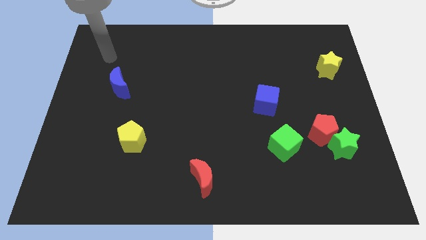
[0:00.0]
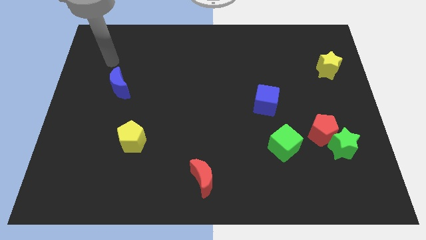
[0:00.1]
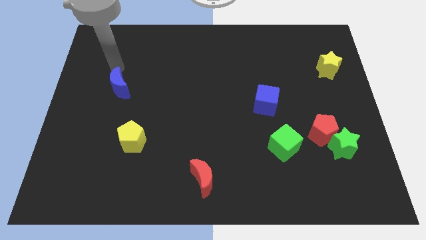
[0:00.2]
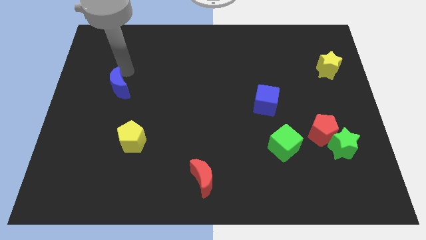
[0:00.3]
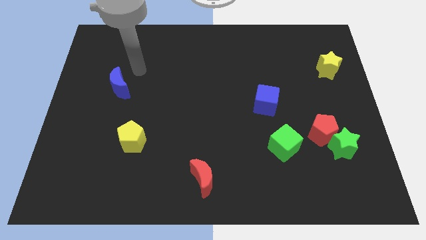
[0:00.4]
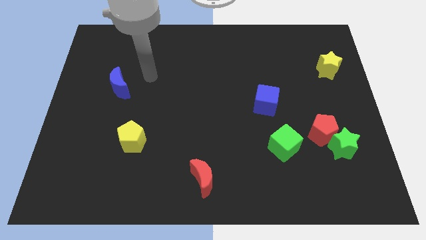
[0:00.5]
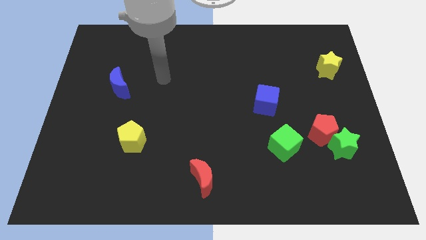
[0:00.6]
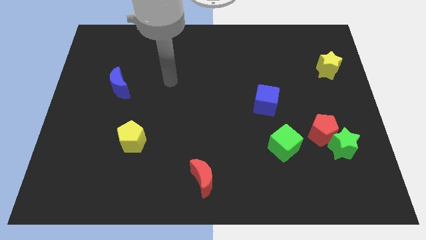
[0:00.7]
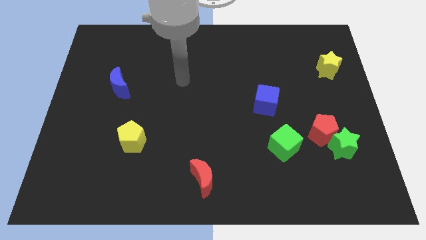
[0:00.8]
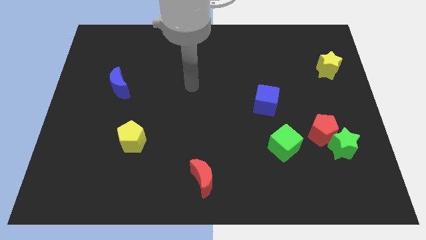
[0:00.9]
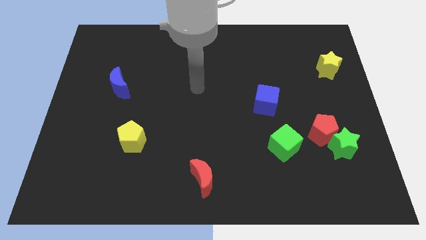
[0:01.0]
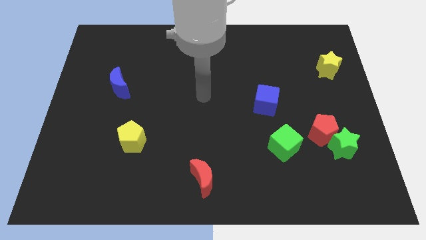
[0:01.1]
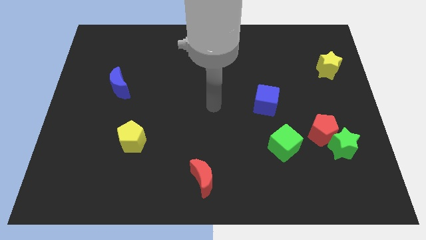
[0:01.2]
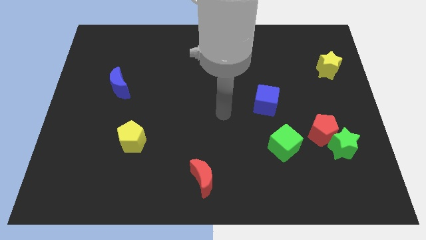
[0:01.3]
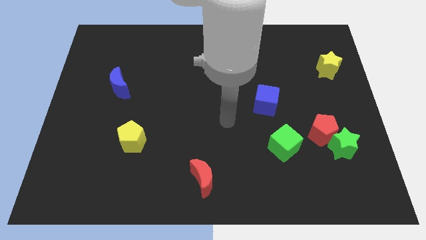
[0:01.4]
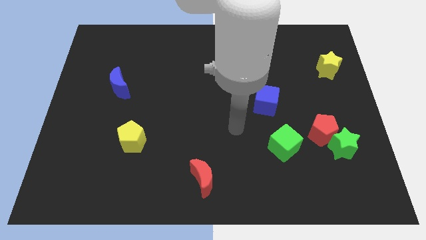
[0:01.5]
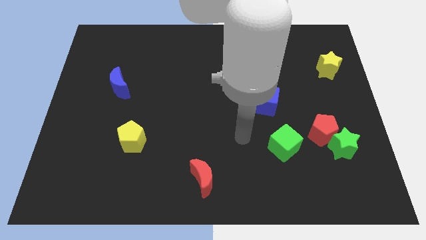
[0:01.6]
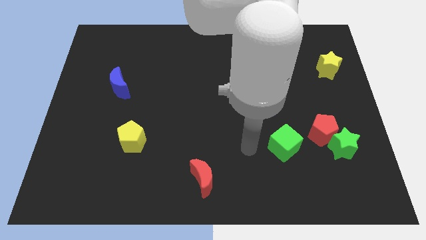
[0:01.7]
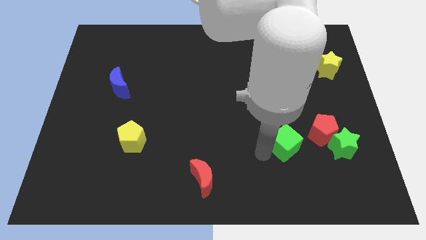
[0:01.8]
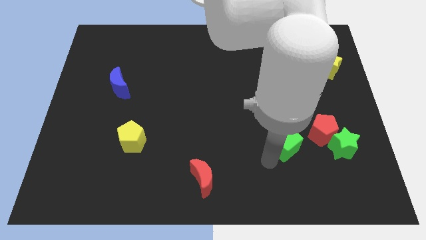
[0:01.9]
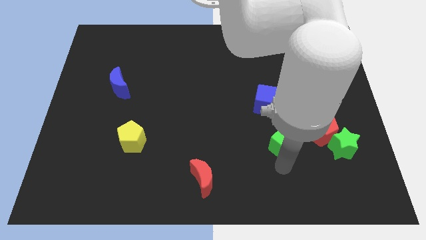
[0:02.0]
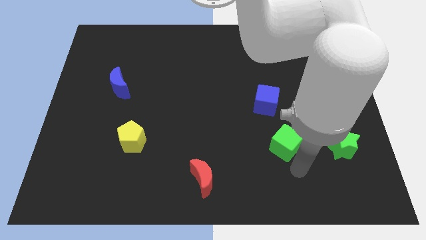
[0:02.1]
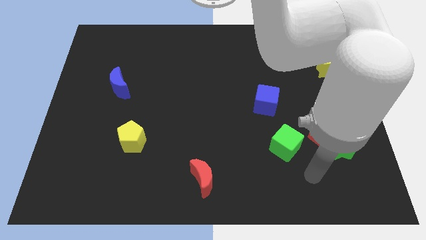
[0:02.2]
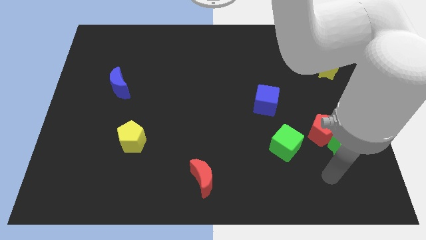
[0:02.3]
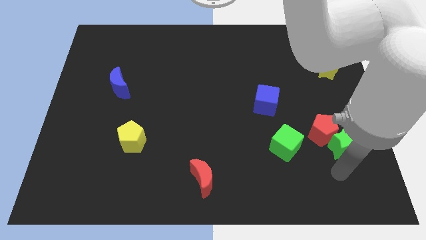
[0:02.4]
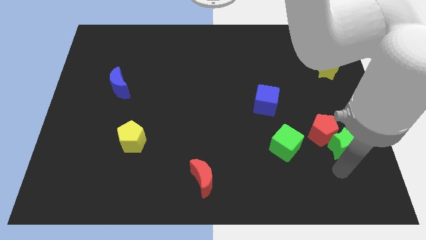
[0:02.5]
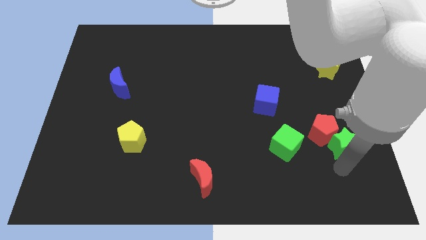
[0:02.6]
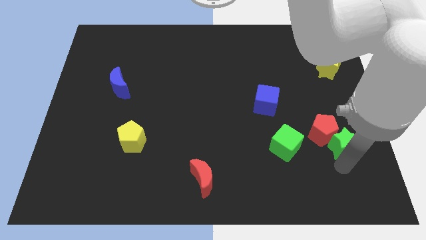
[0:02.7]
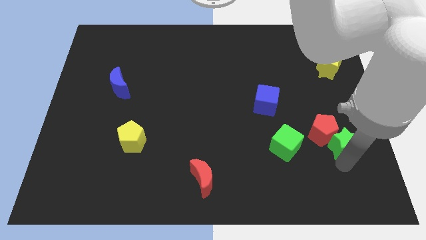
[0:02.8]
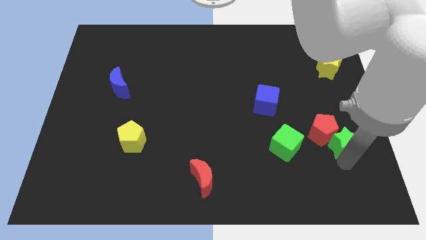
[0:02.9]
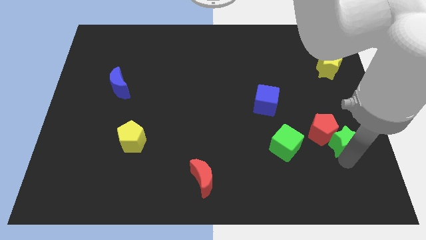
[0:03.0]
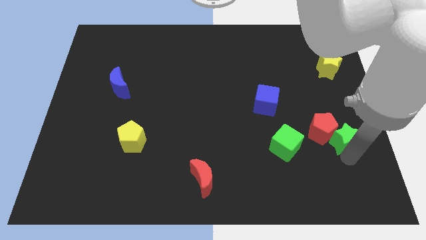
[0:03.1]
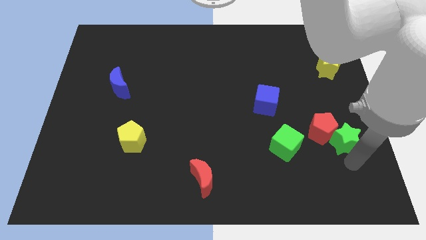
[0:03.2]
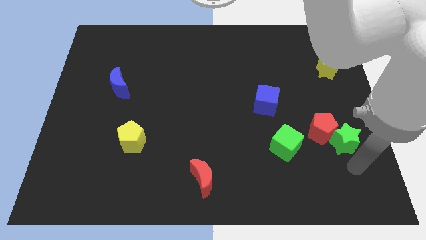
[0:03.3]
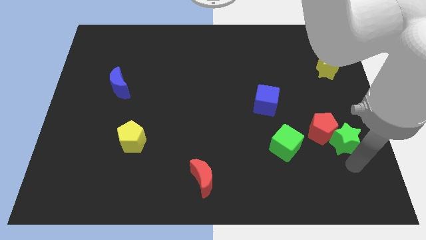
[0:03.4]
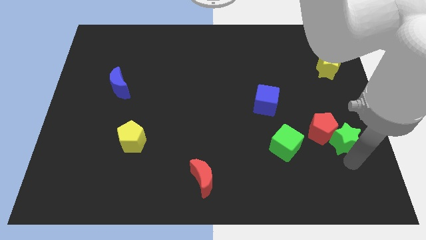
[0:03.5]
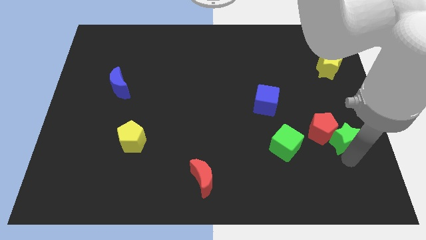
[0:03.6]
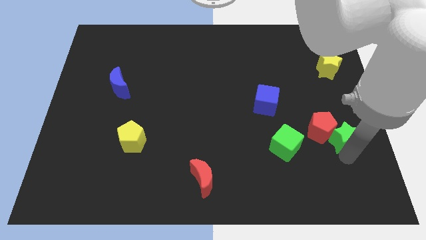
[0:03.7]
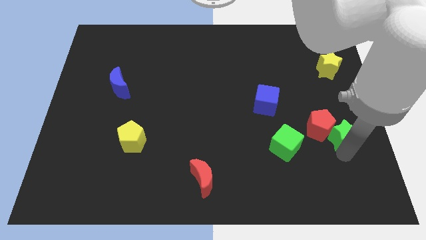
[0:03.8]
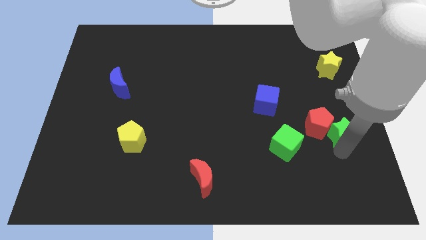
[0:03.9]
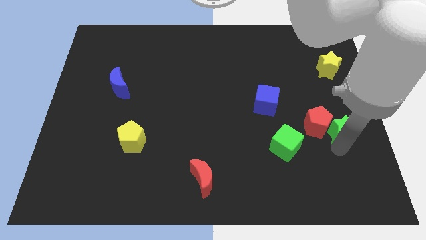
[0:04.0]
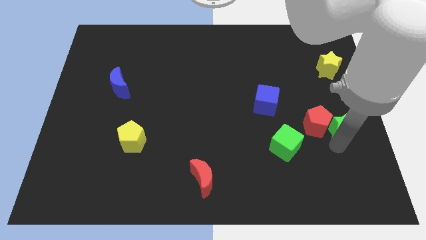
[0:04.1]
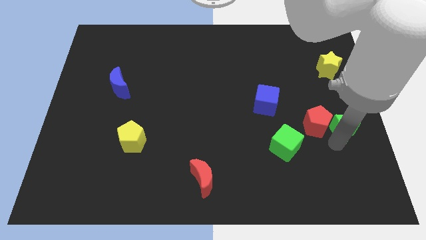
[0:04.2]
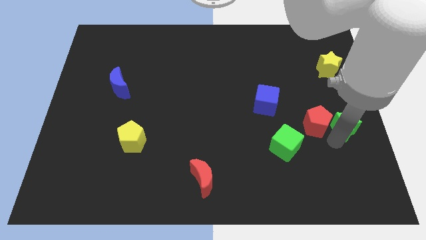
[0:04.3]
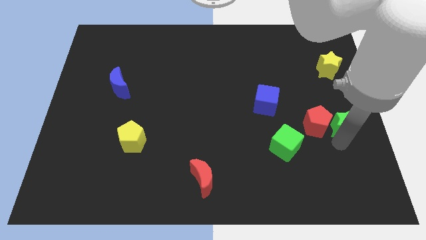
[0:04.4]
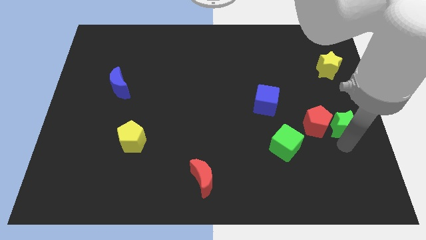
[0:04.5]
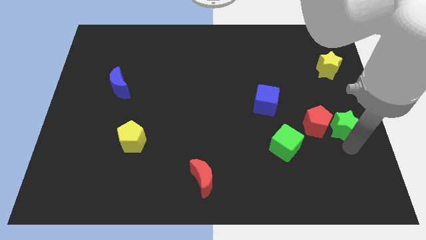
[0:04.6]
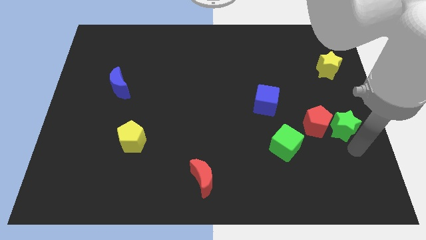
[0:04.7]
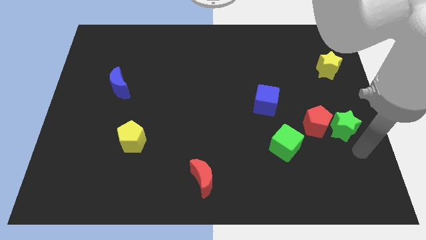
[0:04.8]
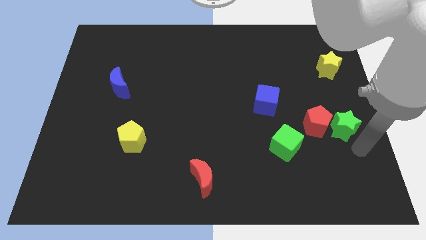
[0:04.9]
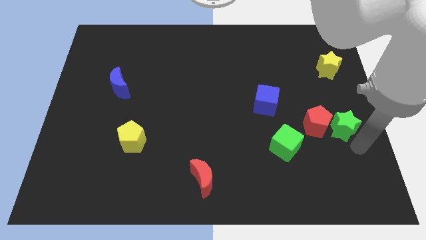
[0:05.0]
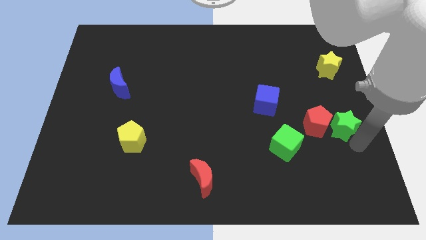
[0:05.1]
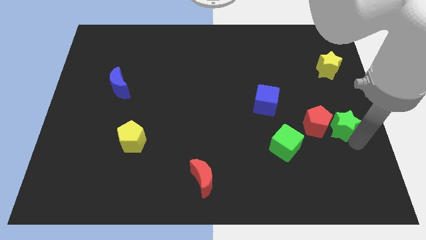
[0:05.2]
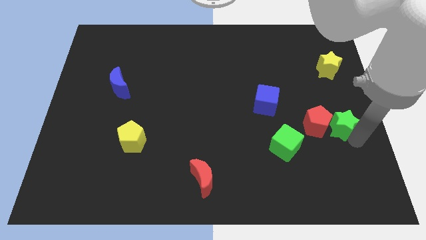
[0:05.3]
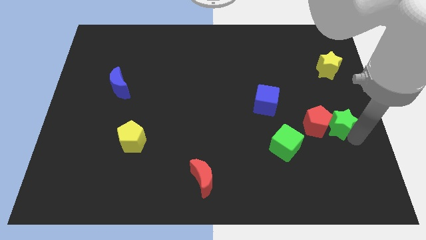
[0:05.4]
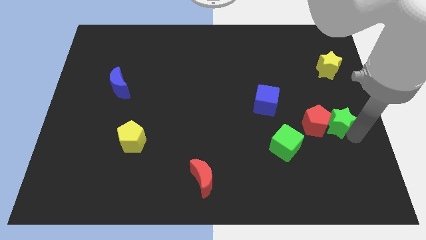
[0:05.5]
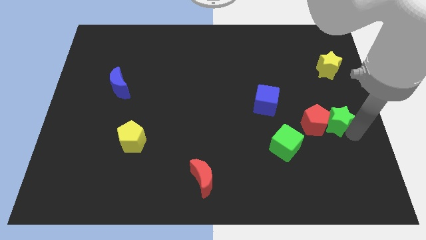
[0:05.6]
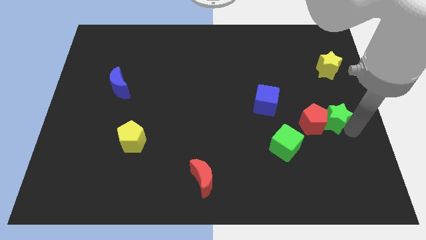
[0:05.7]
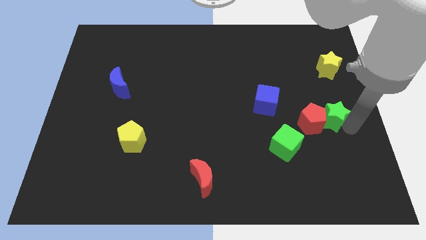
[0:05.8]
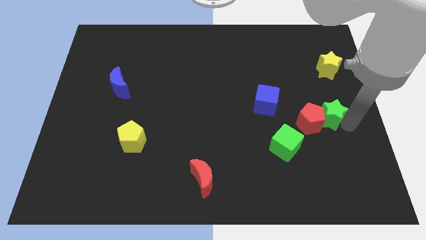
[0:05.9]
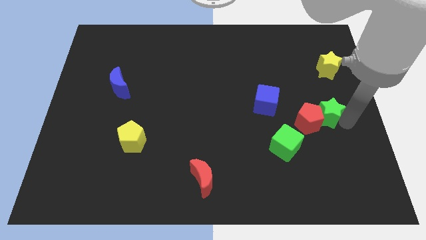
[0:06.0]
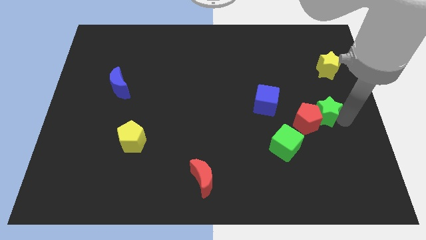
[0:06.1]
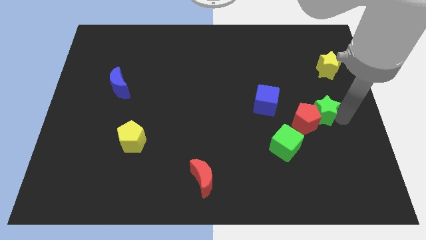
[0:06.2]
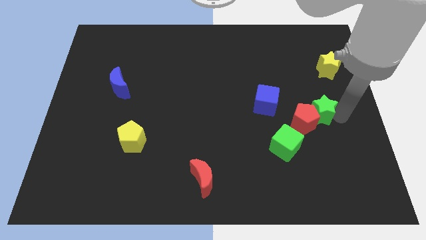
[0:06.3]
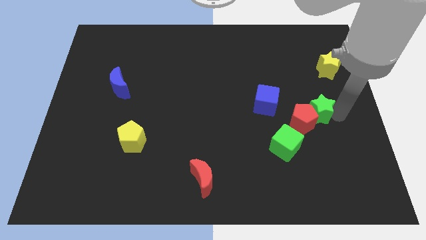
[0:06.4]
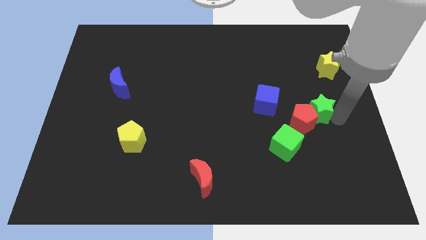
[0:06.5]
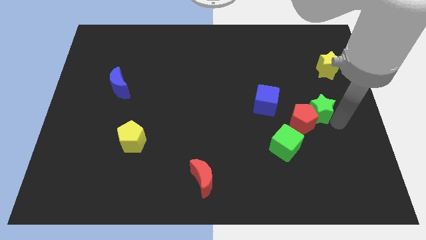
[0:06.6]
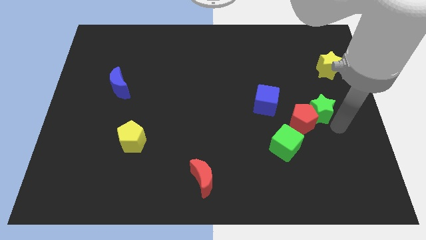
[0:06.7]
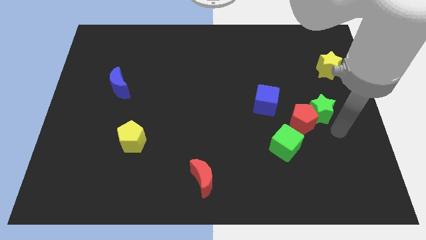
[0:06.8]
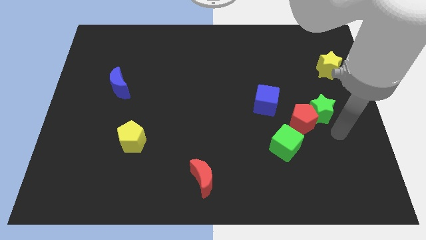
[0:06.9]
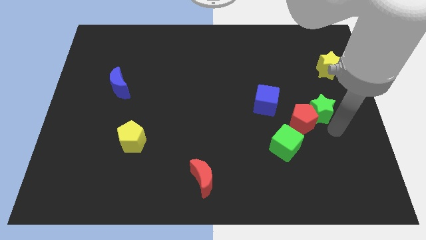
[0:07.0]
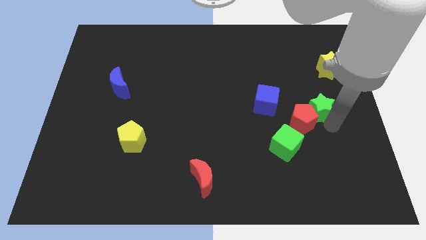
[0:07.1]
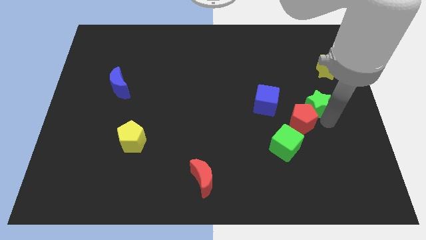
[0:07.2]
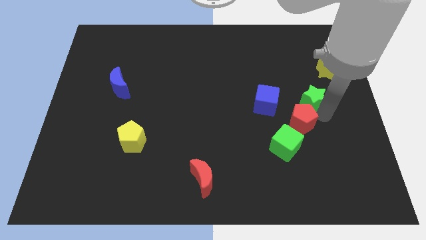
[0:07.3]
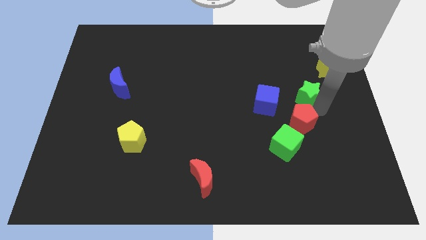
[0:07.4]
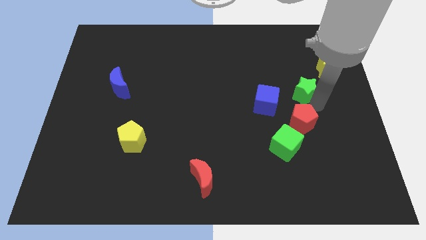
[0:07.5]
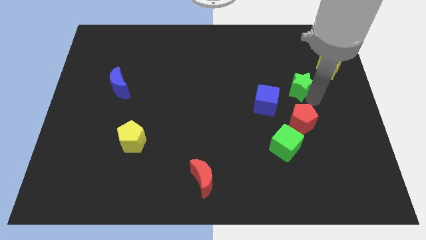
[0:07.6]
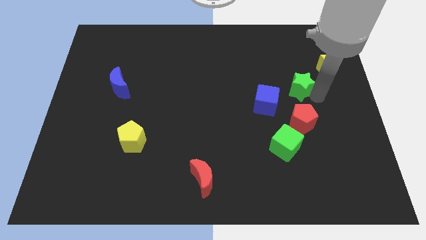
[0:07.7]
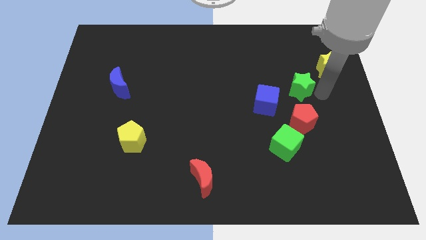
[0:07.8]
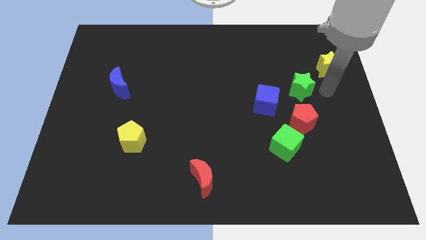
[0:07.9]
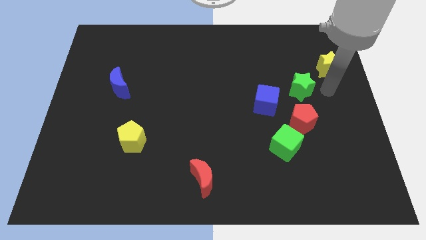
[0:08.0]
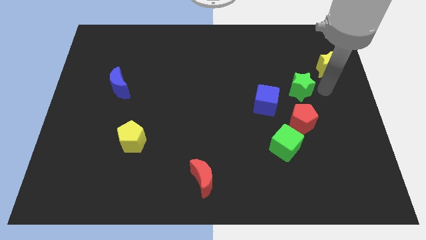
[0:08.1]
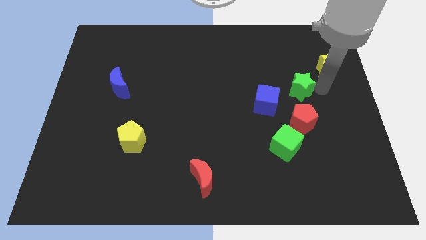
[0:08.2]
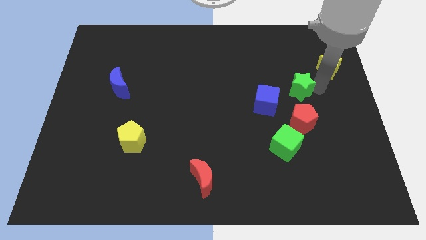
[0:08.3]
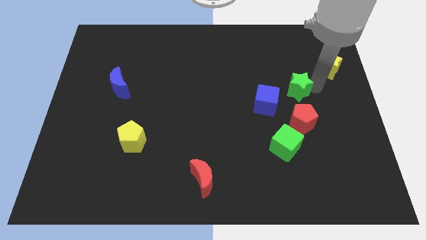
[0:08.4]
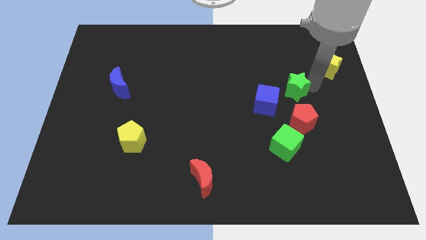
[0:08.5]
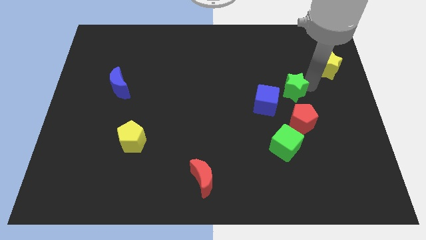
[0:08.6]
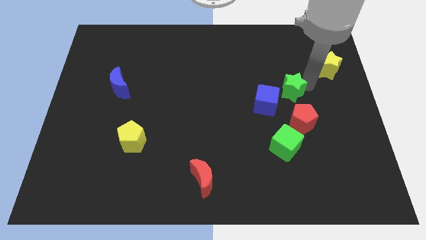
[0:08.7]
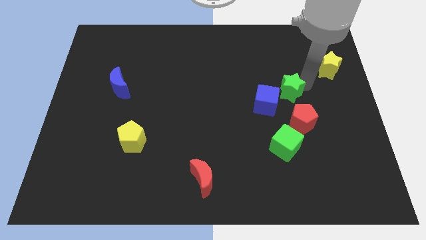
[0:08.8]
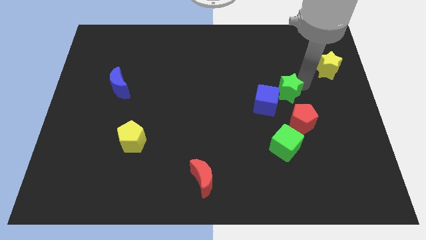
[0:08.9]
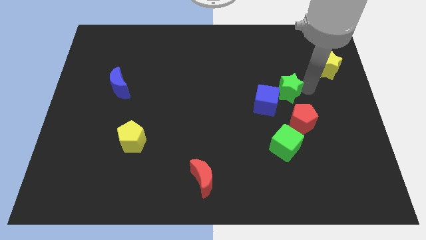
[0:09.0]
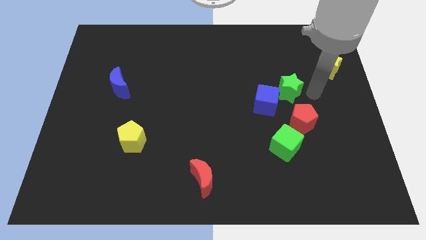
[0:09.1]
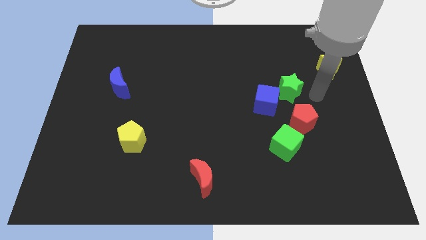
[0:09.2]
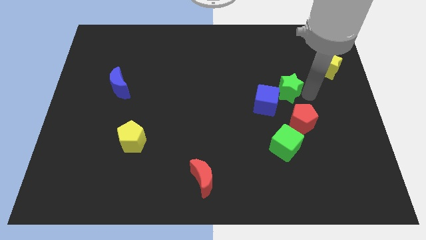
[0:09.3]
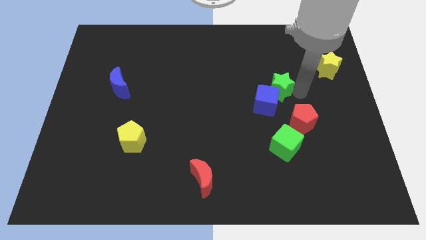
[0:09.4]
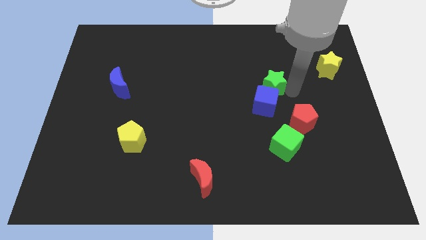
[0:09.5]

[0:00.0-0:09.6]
move the green star upwards and left diagonally
